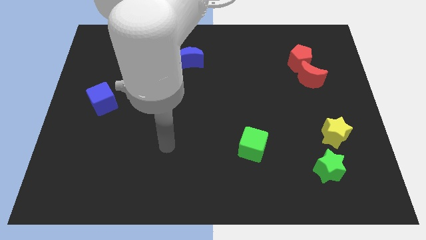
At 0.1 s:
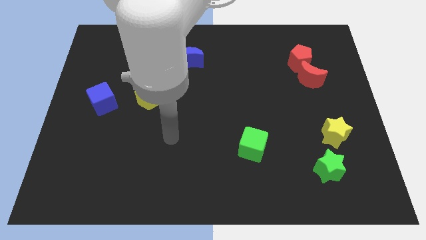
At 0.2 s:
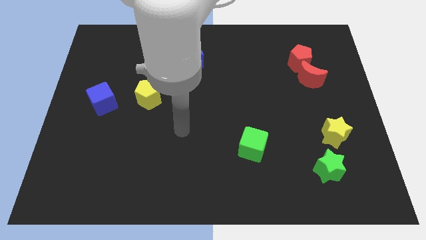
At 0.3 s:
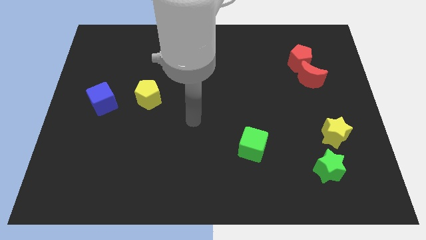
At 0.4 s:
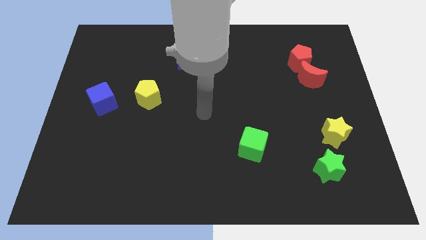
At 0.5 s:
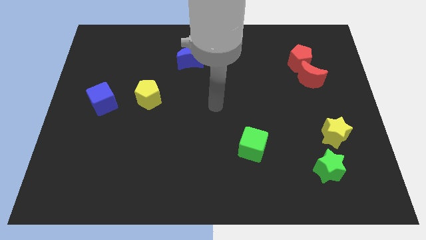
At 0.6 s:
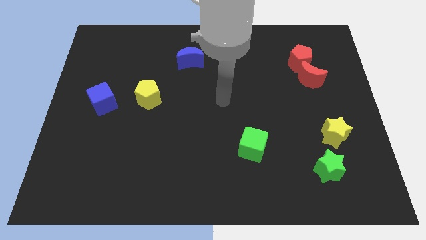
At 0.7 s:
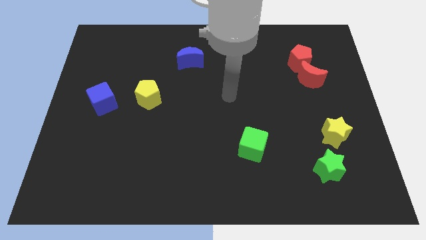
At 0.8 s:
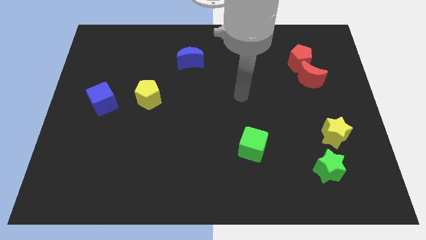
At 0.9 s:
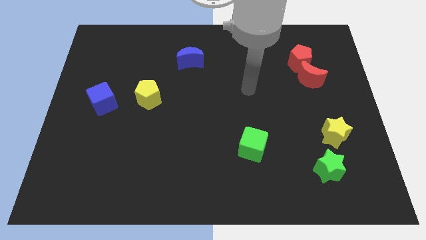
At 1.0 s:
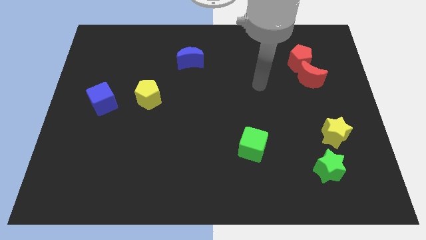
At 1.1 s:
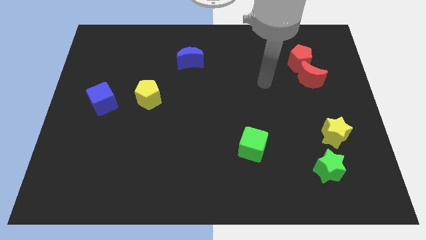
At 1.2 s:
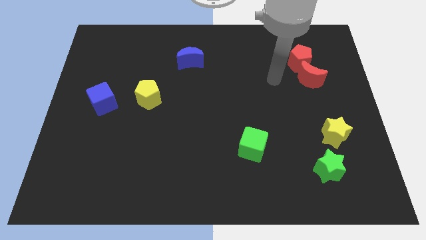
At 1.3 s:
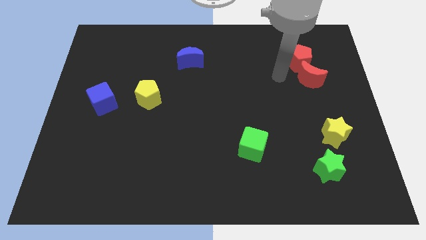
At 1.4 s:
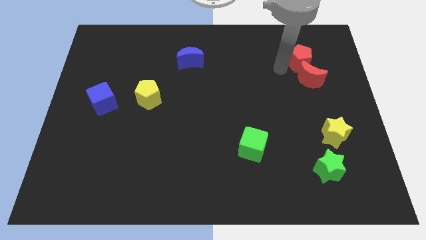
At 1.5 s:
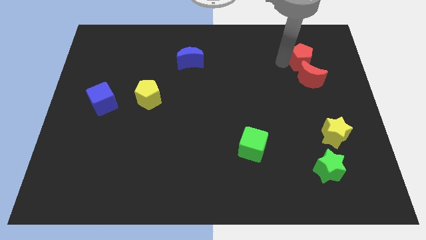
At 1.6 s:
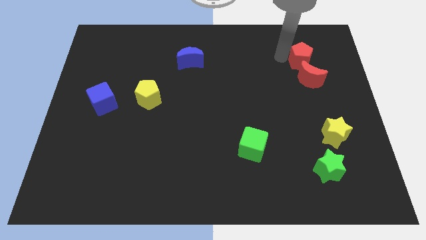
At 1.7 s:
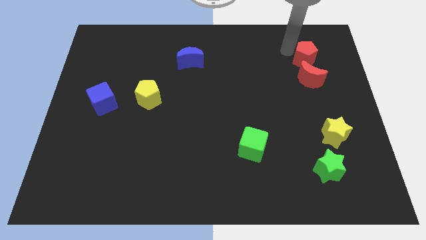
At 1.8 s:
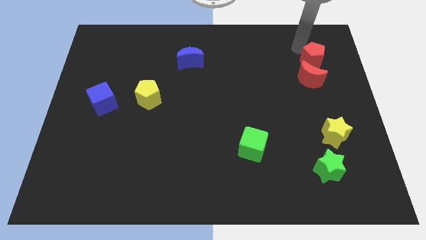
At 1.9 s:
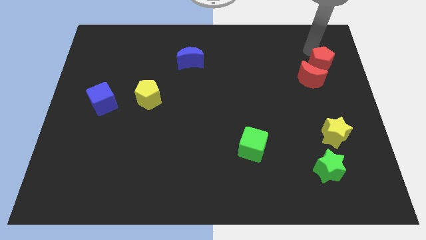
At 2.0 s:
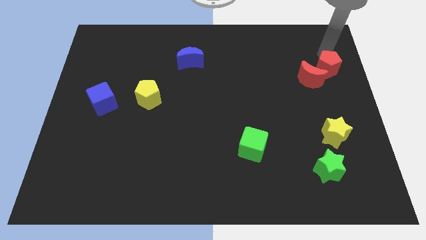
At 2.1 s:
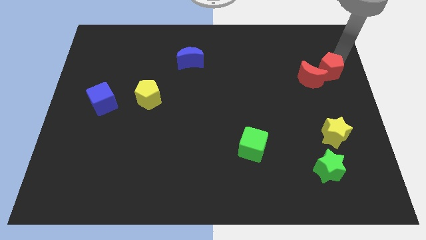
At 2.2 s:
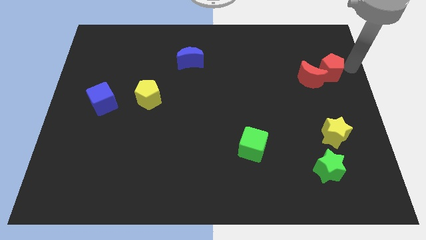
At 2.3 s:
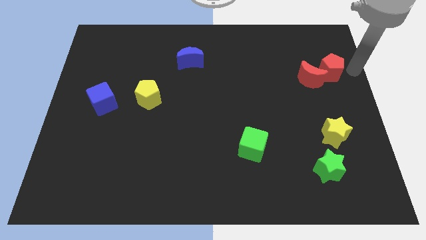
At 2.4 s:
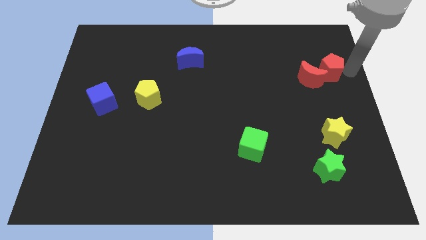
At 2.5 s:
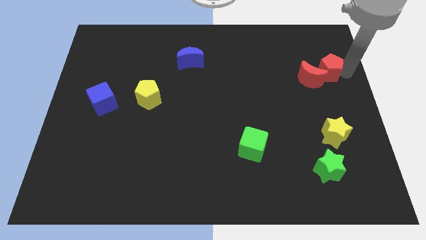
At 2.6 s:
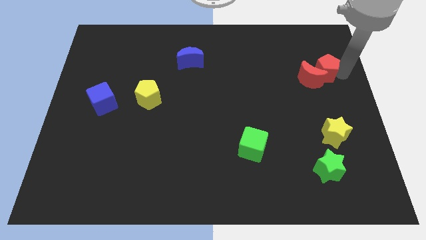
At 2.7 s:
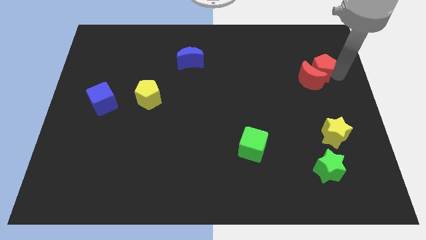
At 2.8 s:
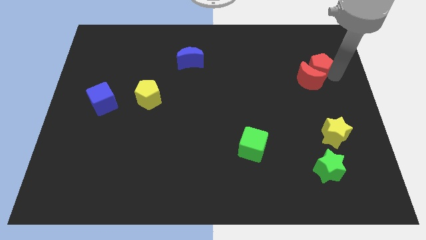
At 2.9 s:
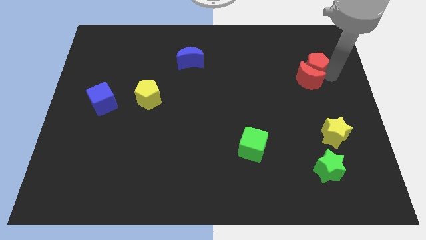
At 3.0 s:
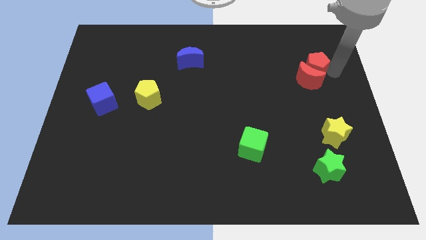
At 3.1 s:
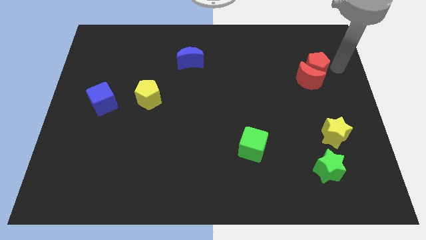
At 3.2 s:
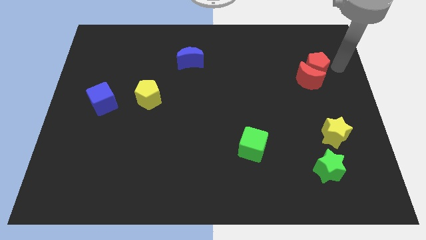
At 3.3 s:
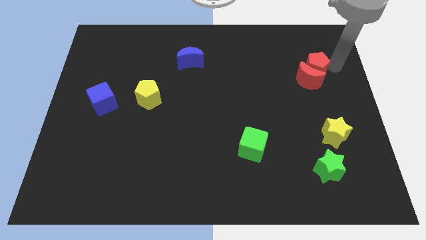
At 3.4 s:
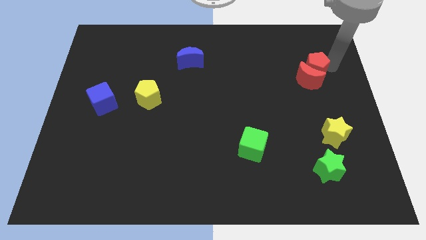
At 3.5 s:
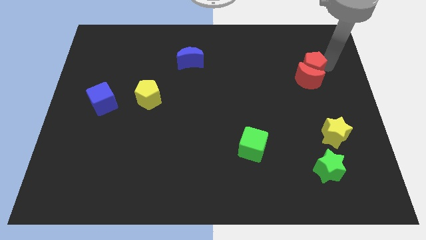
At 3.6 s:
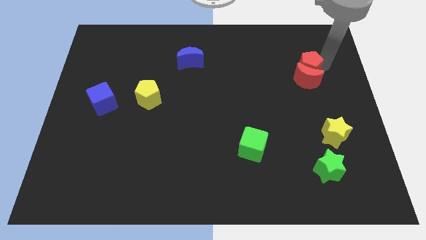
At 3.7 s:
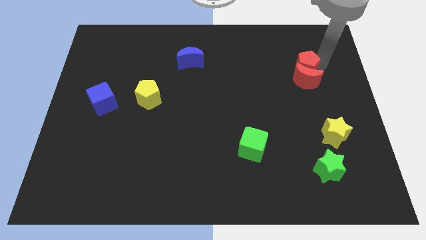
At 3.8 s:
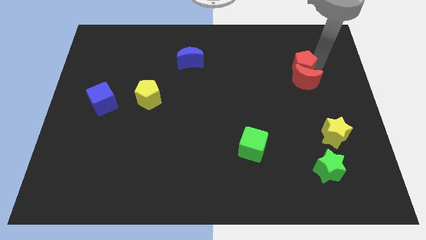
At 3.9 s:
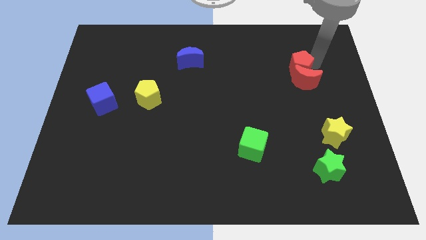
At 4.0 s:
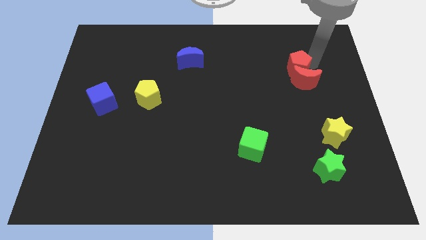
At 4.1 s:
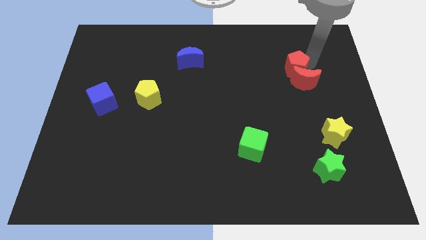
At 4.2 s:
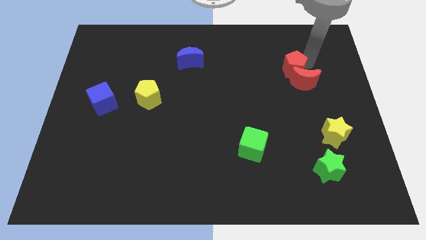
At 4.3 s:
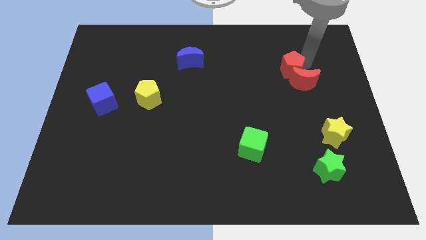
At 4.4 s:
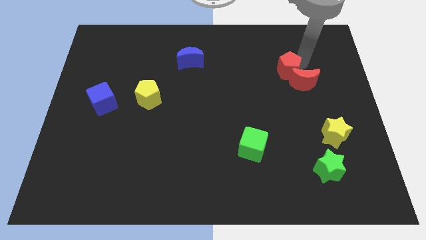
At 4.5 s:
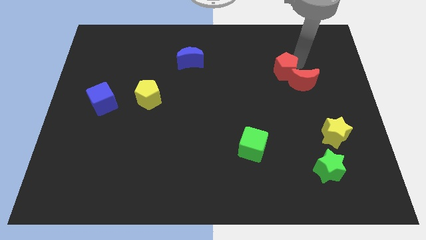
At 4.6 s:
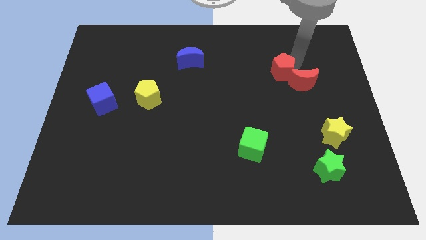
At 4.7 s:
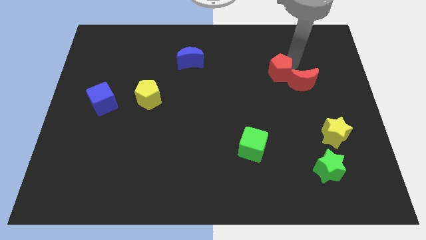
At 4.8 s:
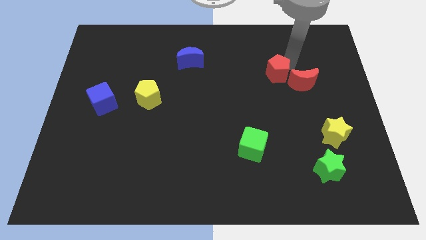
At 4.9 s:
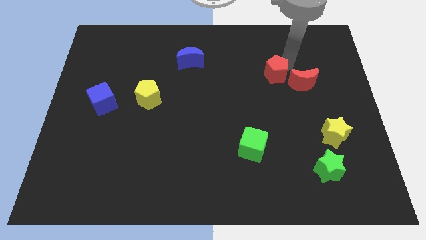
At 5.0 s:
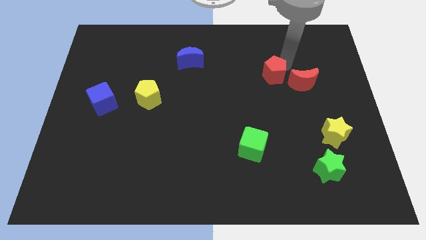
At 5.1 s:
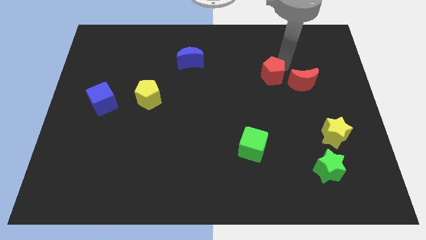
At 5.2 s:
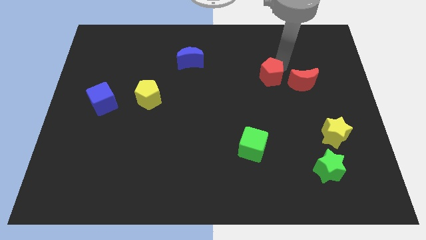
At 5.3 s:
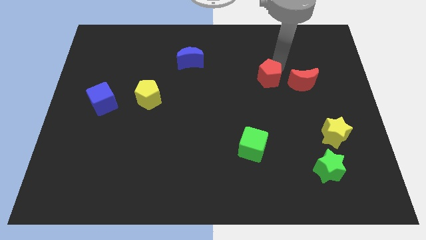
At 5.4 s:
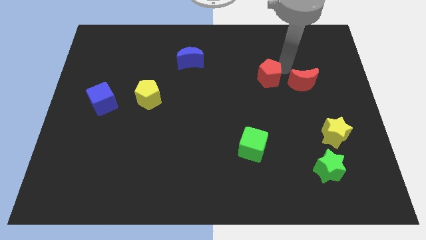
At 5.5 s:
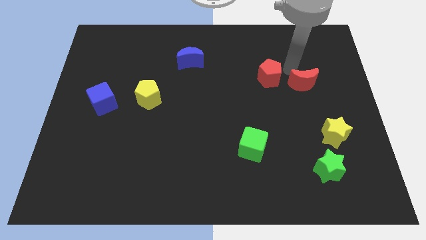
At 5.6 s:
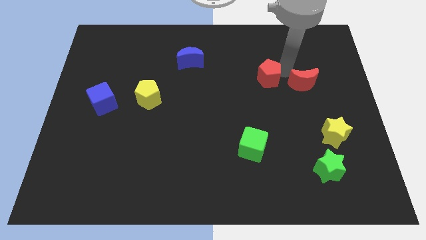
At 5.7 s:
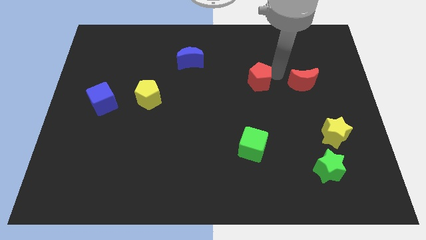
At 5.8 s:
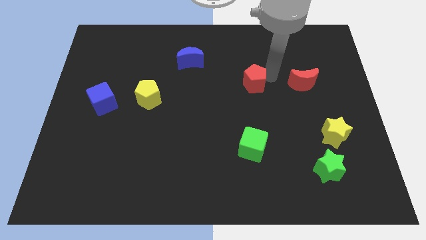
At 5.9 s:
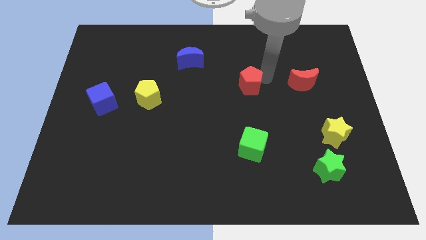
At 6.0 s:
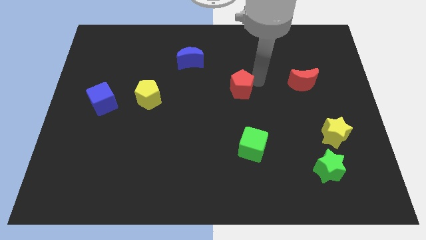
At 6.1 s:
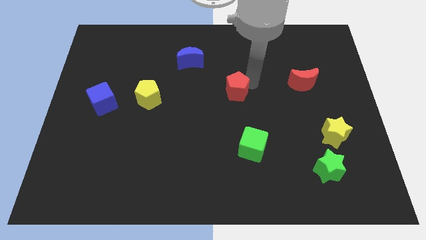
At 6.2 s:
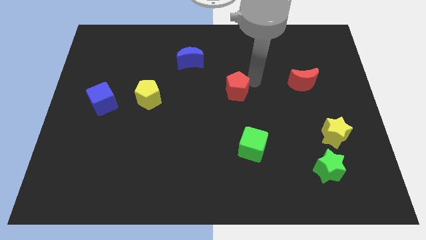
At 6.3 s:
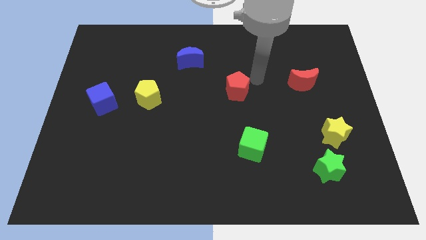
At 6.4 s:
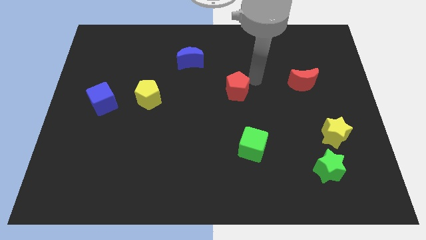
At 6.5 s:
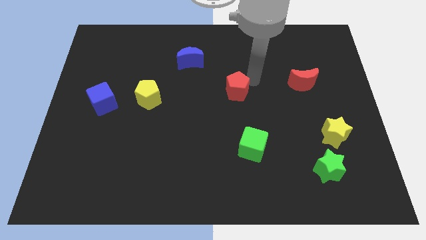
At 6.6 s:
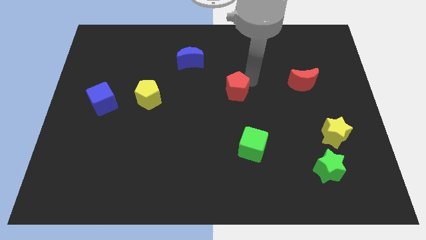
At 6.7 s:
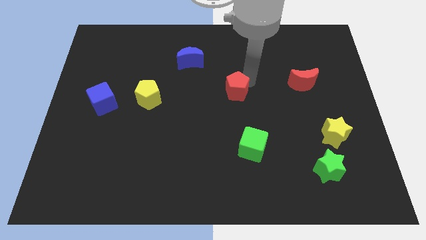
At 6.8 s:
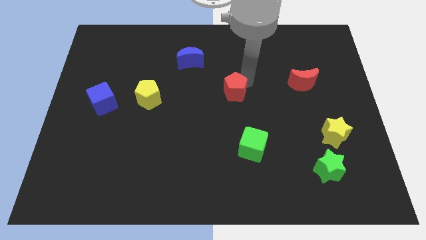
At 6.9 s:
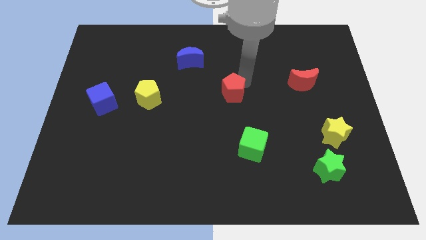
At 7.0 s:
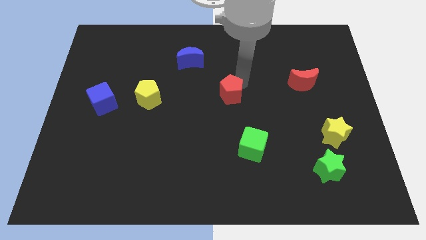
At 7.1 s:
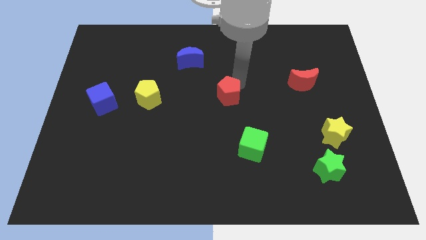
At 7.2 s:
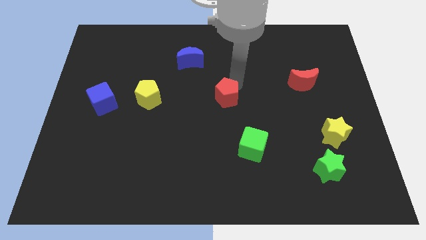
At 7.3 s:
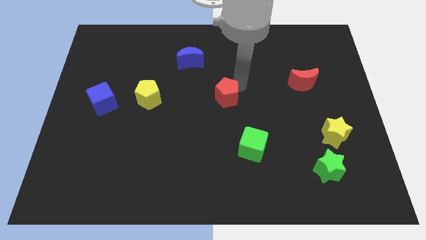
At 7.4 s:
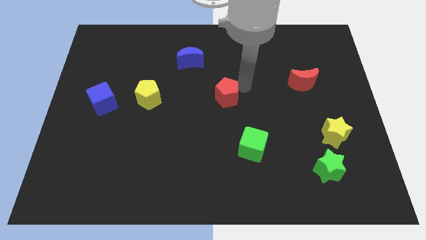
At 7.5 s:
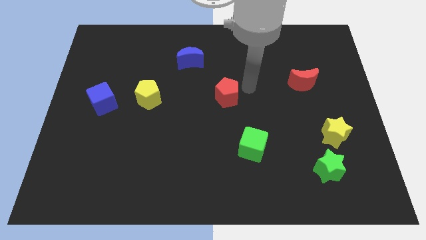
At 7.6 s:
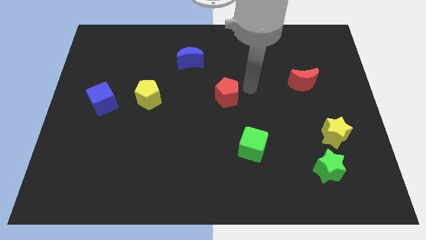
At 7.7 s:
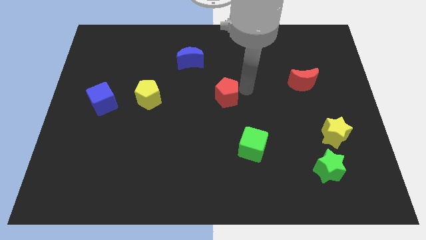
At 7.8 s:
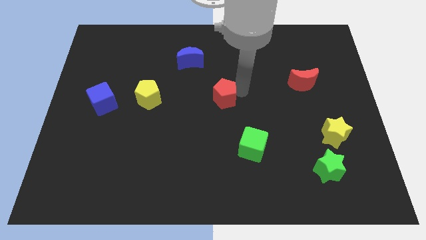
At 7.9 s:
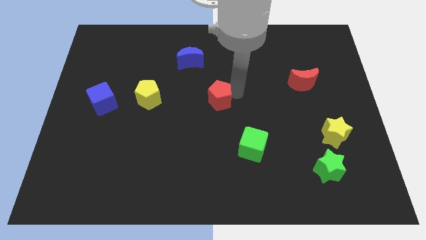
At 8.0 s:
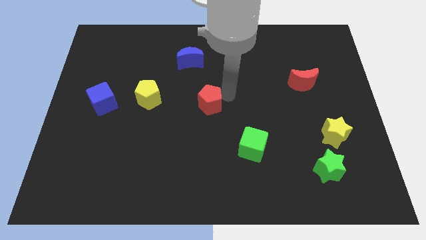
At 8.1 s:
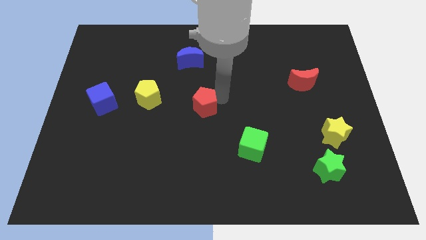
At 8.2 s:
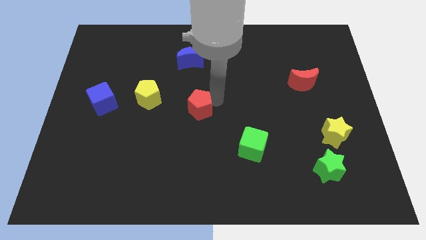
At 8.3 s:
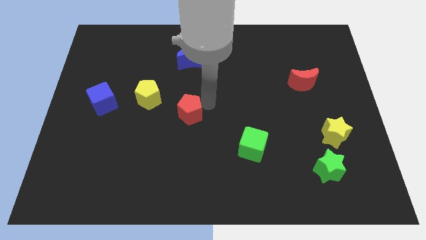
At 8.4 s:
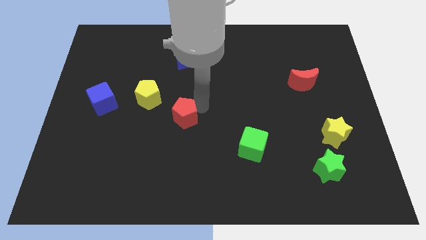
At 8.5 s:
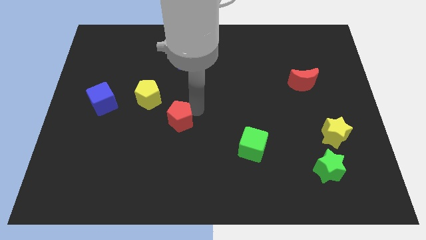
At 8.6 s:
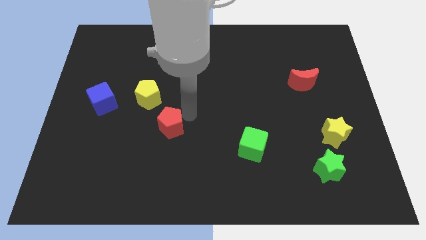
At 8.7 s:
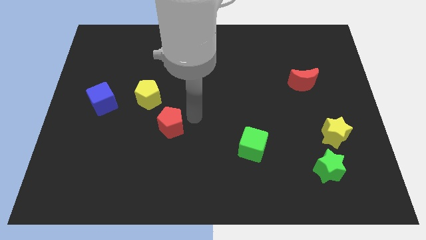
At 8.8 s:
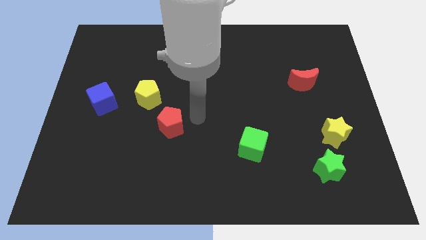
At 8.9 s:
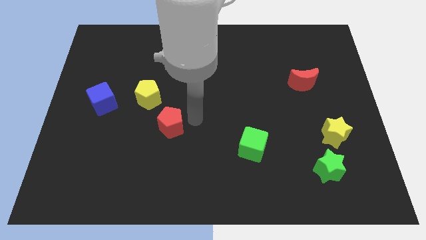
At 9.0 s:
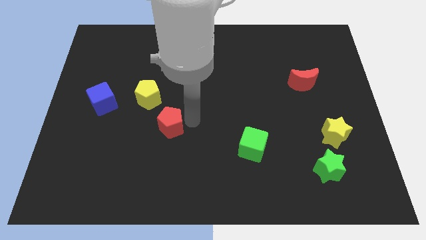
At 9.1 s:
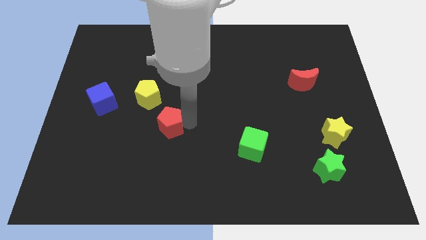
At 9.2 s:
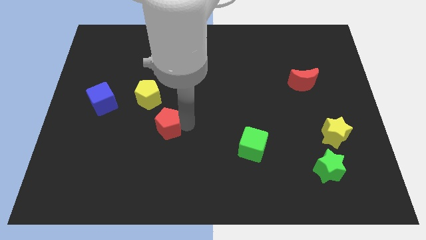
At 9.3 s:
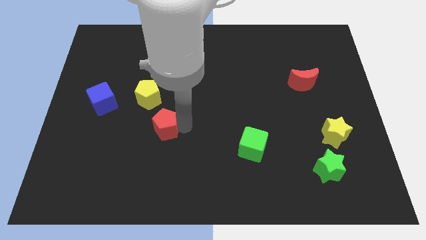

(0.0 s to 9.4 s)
put the red pentagon to the bottom of the yellow pentagon
